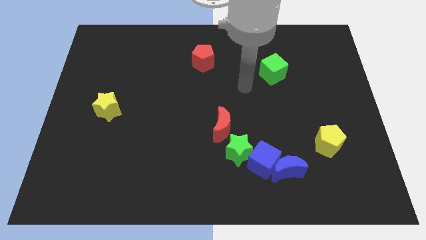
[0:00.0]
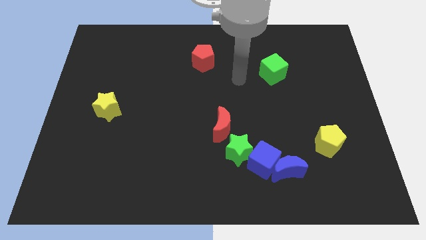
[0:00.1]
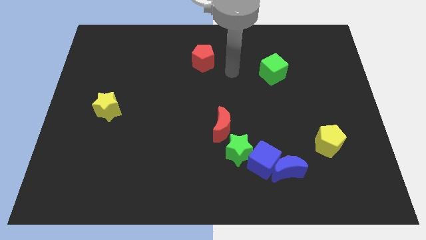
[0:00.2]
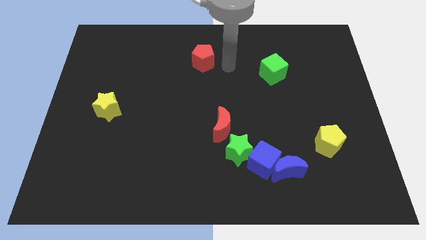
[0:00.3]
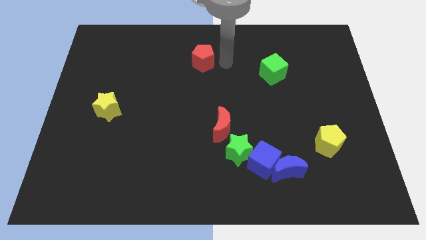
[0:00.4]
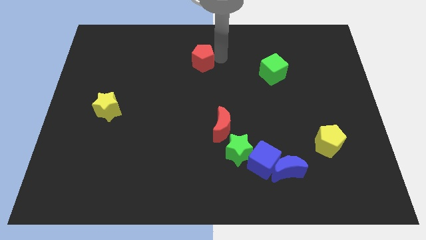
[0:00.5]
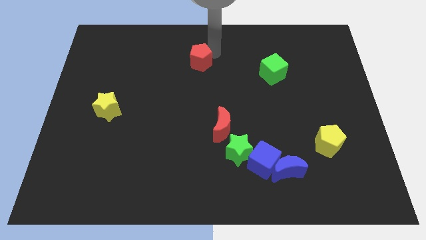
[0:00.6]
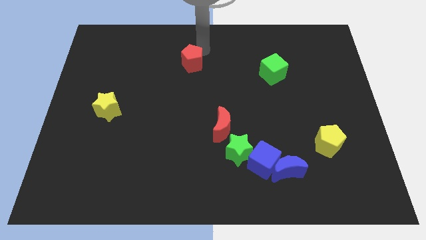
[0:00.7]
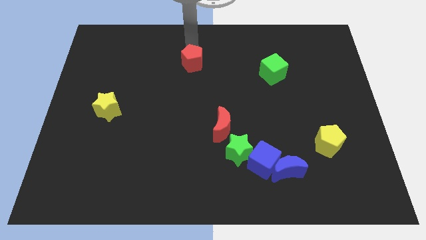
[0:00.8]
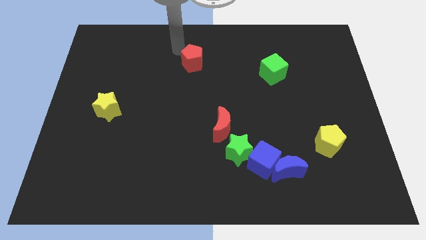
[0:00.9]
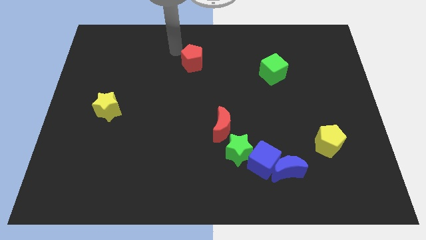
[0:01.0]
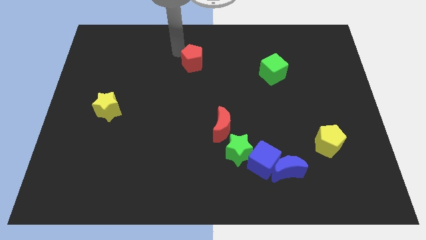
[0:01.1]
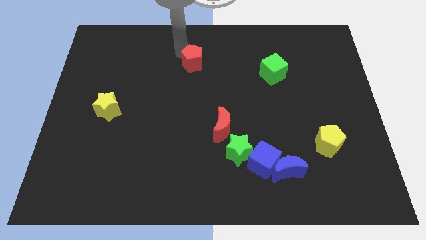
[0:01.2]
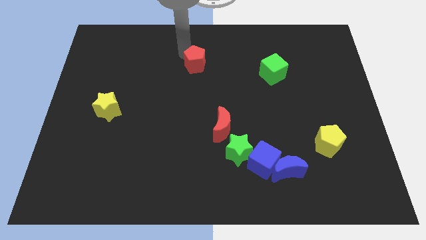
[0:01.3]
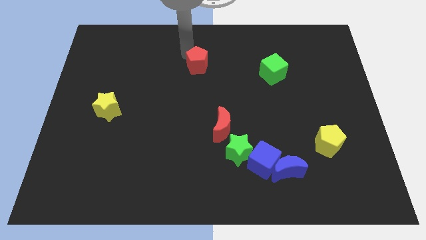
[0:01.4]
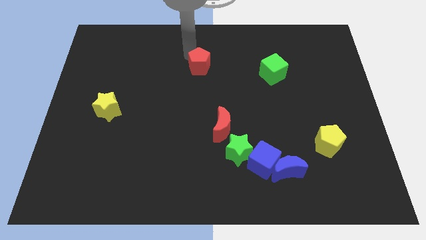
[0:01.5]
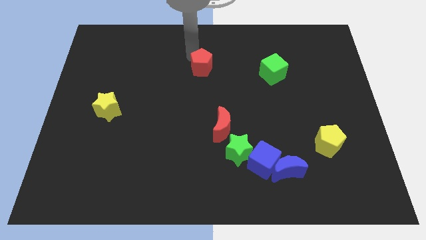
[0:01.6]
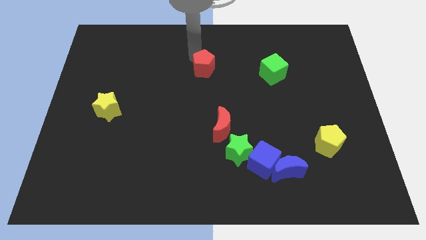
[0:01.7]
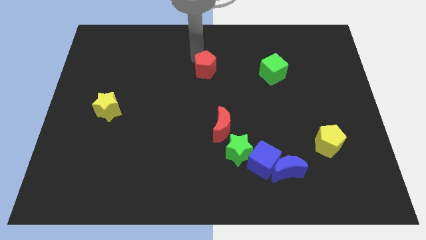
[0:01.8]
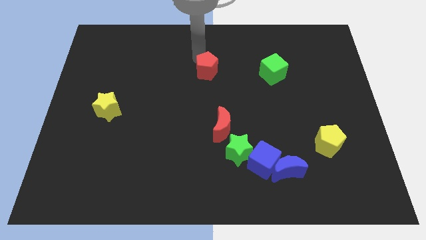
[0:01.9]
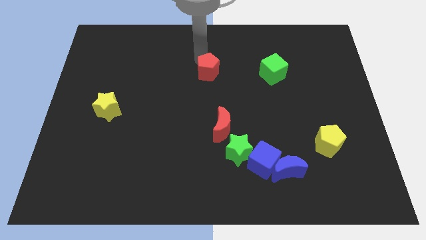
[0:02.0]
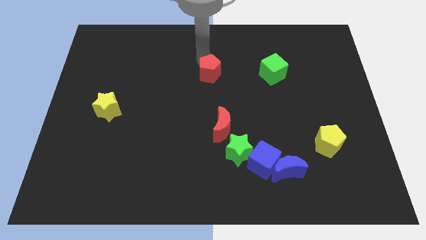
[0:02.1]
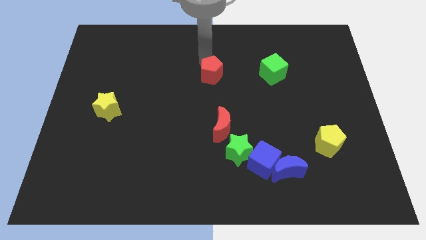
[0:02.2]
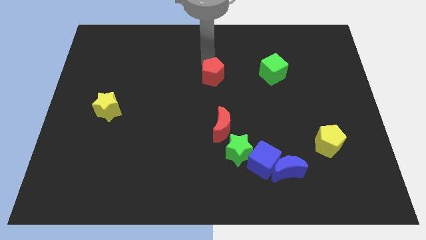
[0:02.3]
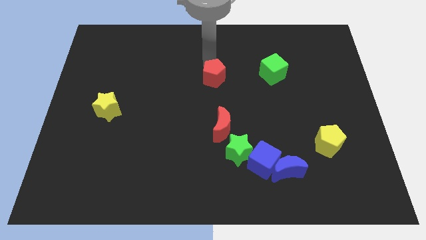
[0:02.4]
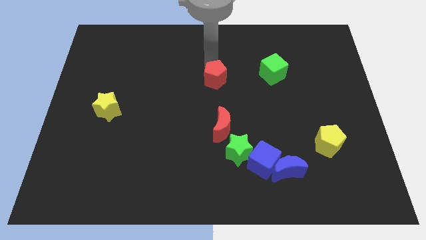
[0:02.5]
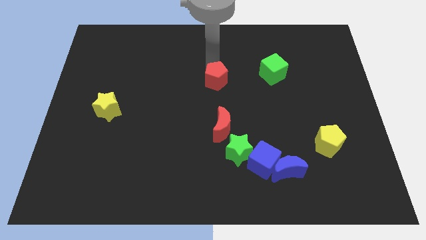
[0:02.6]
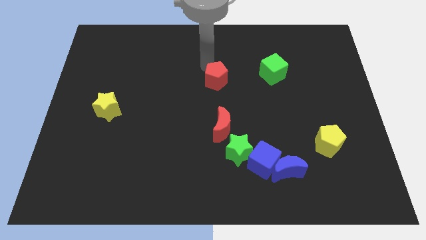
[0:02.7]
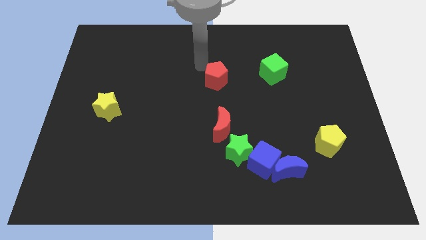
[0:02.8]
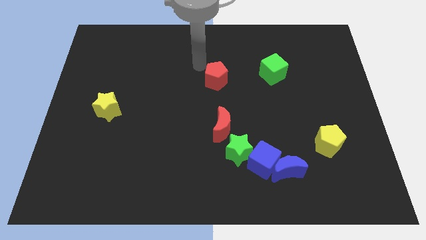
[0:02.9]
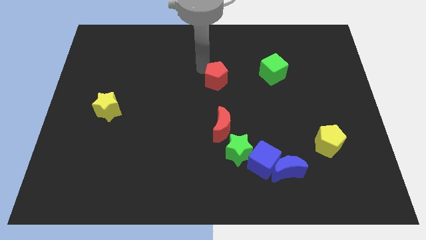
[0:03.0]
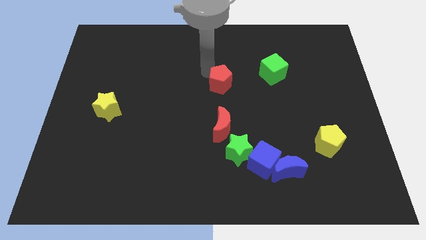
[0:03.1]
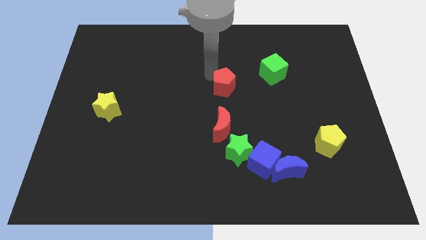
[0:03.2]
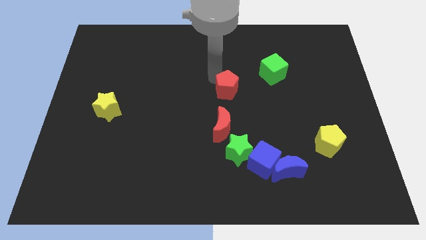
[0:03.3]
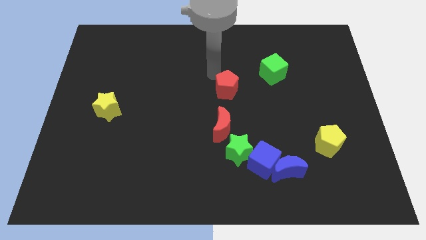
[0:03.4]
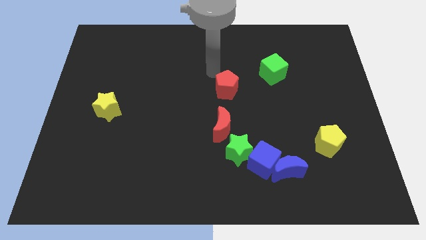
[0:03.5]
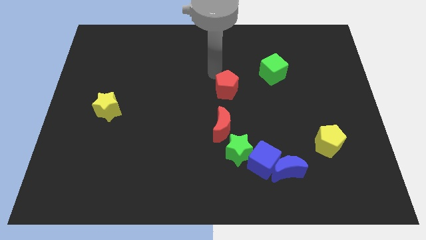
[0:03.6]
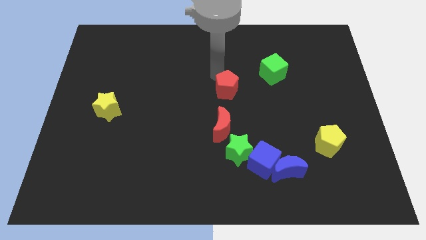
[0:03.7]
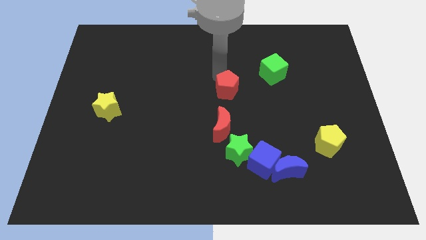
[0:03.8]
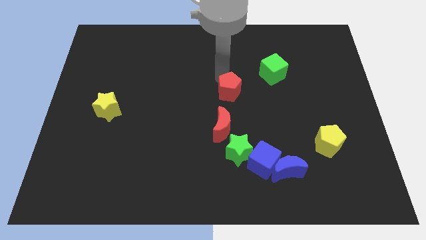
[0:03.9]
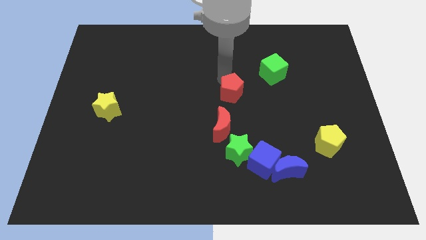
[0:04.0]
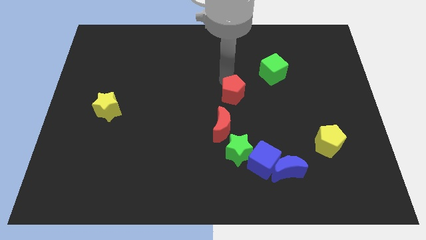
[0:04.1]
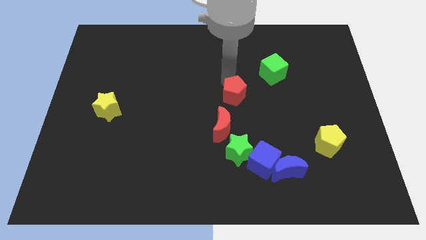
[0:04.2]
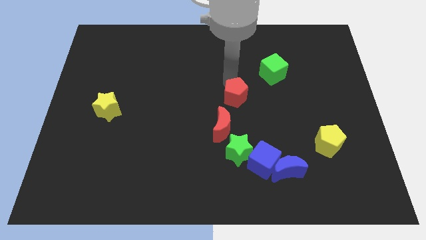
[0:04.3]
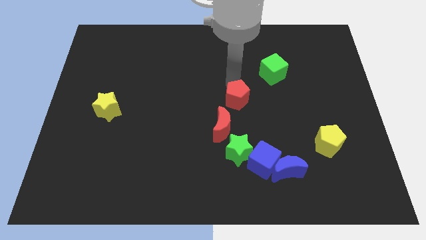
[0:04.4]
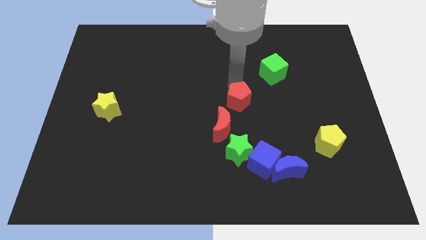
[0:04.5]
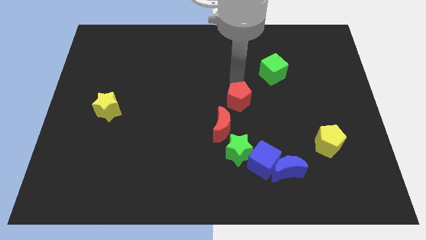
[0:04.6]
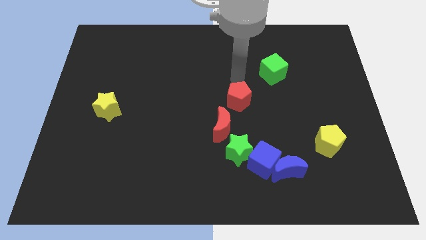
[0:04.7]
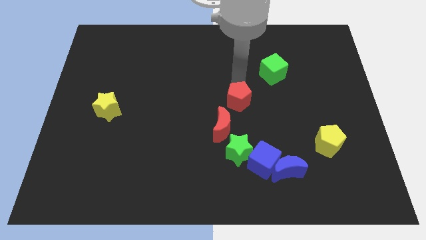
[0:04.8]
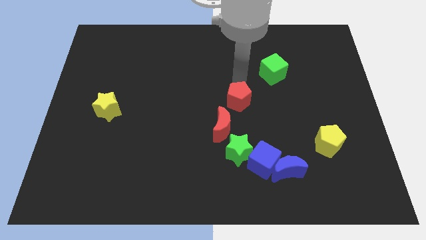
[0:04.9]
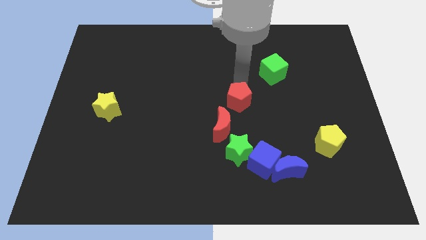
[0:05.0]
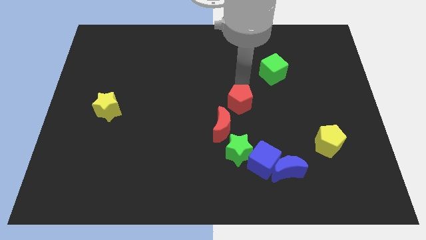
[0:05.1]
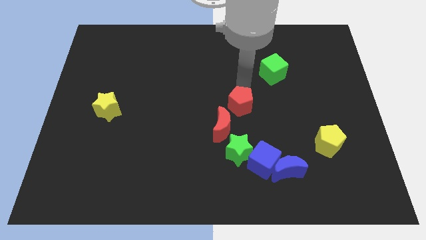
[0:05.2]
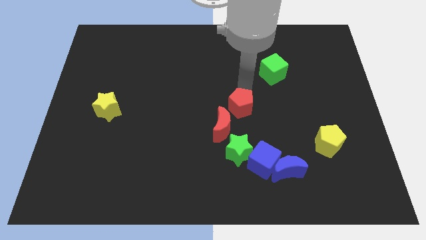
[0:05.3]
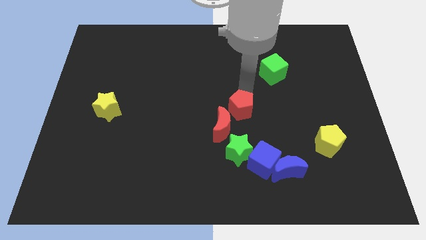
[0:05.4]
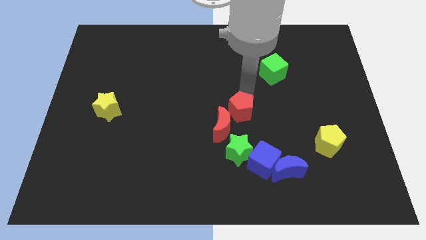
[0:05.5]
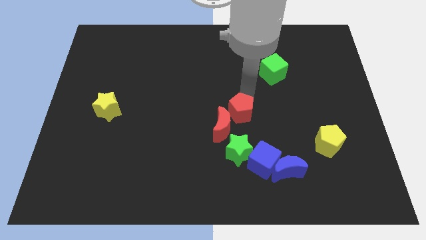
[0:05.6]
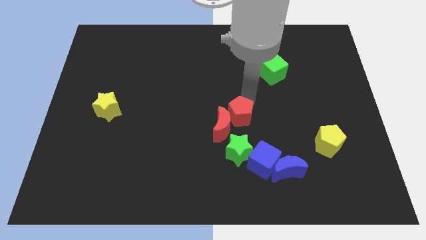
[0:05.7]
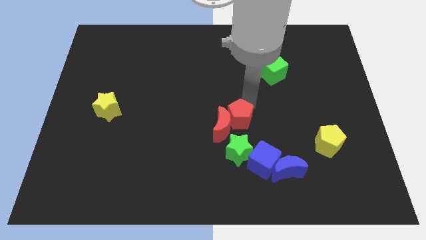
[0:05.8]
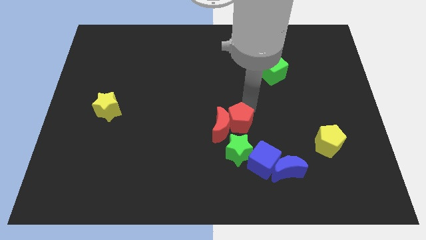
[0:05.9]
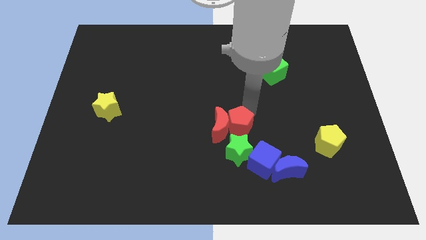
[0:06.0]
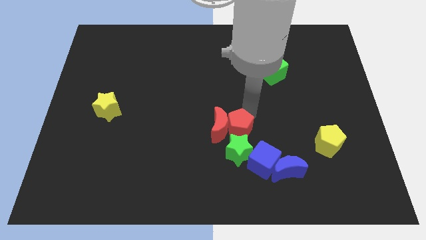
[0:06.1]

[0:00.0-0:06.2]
move the red pentagon towards the green star

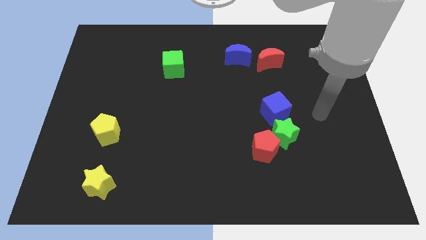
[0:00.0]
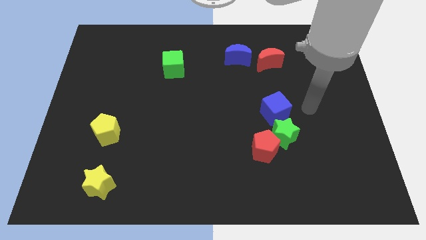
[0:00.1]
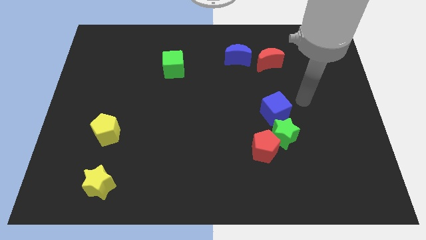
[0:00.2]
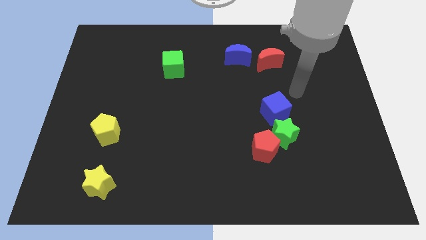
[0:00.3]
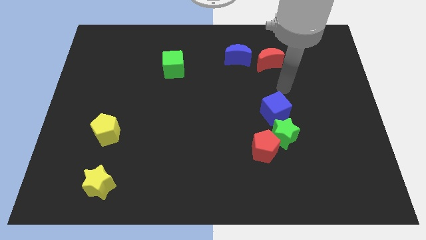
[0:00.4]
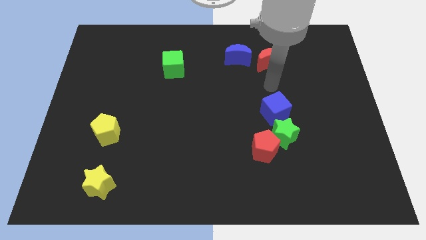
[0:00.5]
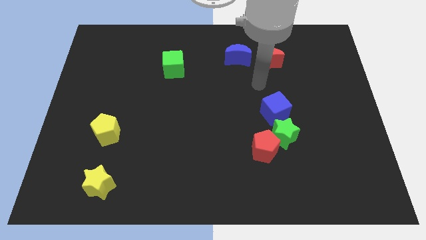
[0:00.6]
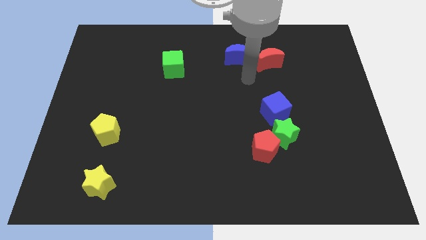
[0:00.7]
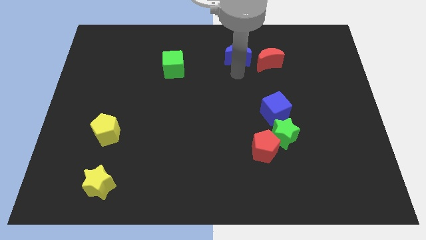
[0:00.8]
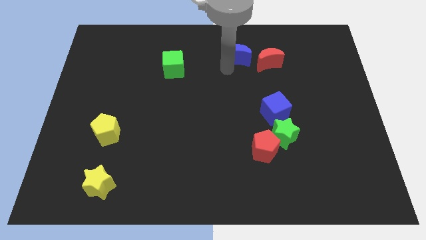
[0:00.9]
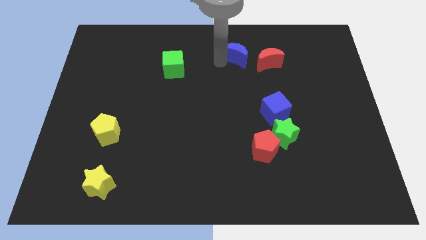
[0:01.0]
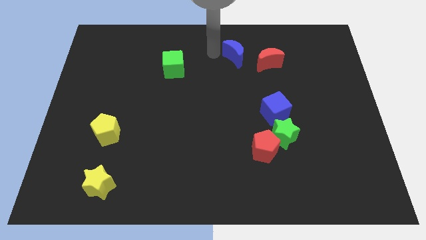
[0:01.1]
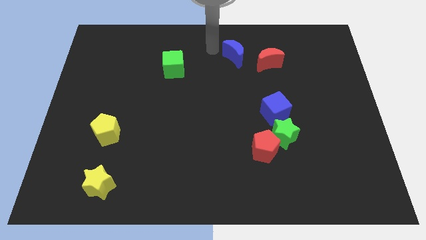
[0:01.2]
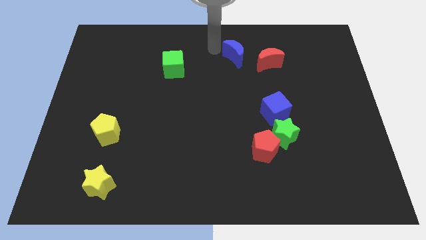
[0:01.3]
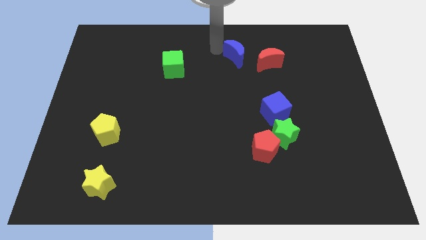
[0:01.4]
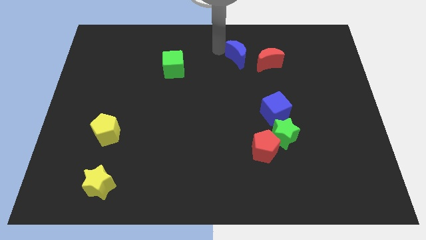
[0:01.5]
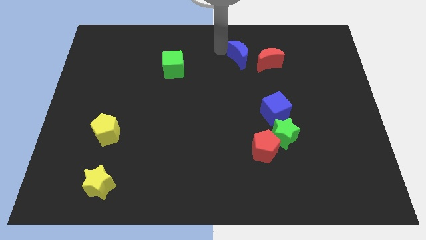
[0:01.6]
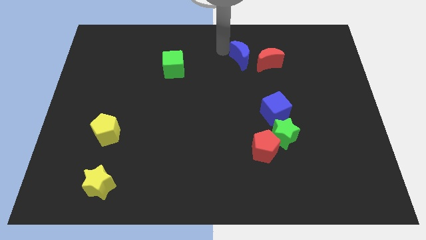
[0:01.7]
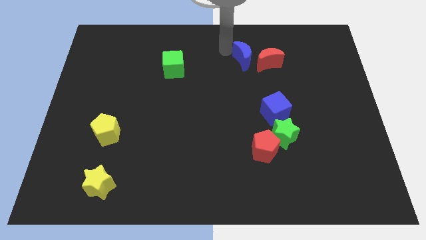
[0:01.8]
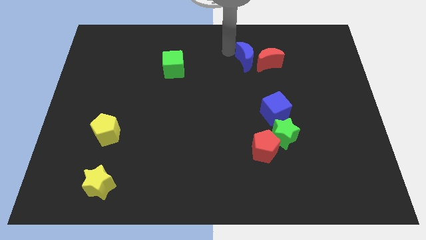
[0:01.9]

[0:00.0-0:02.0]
move the blue moon next to the red moon
